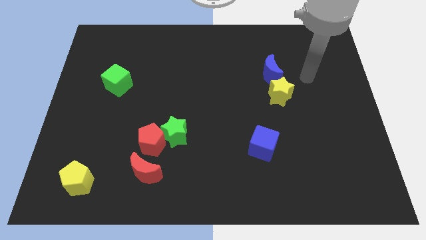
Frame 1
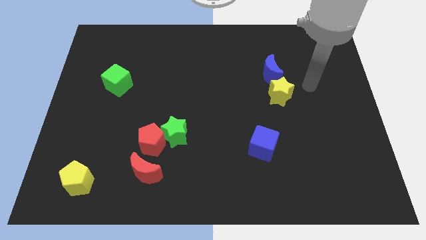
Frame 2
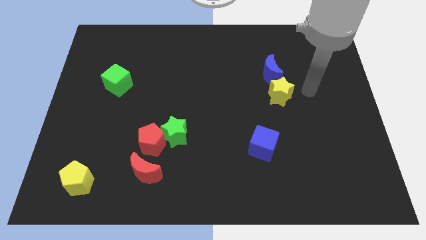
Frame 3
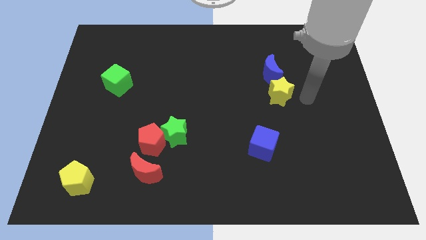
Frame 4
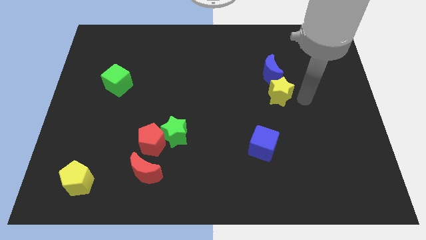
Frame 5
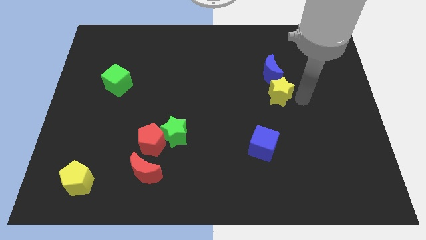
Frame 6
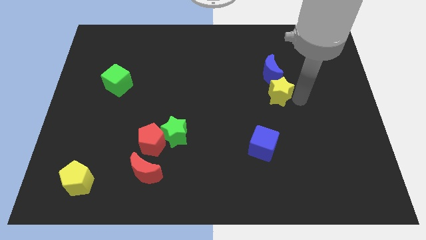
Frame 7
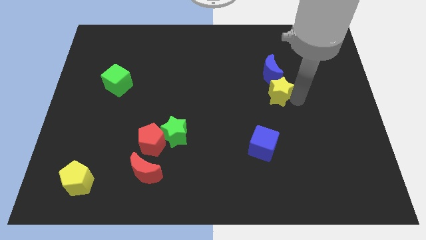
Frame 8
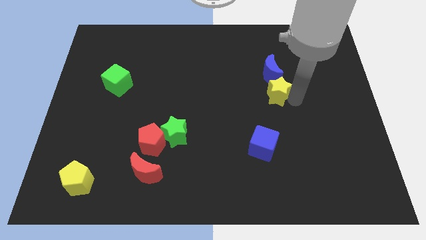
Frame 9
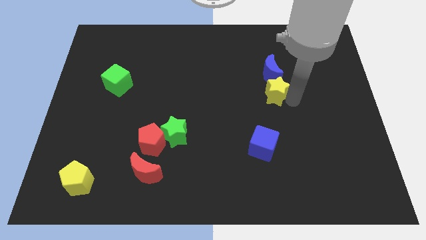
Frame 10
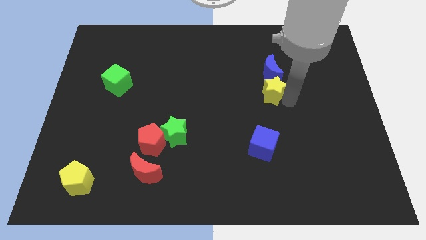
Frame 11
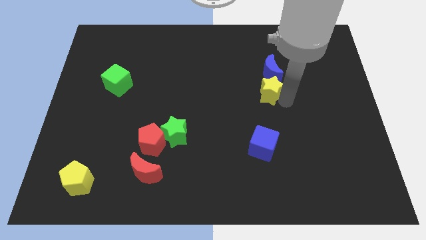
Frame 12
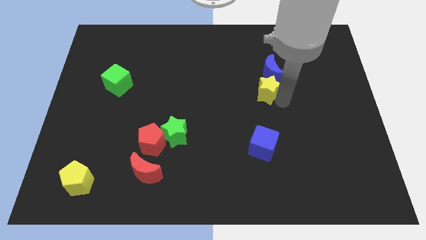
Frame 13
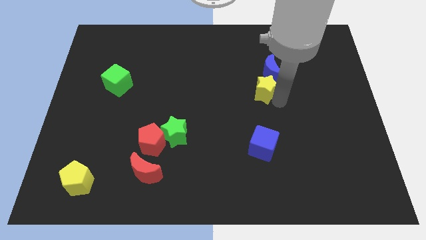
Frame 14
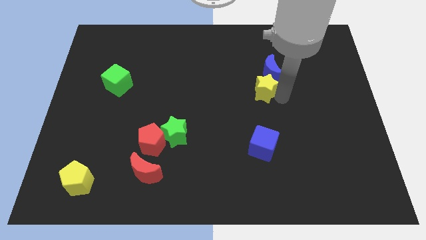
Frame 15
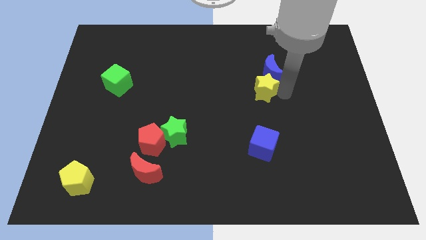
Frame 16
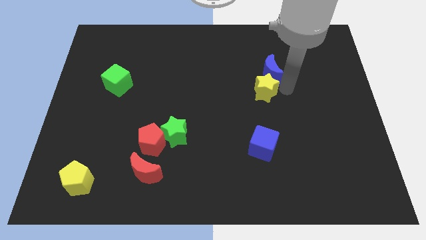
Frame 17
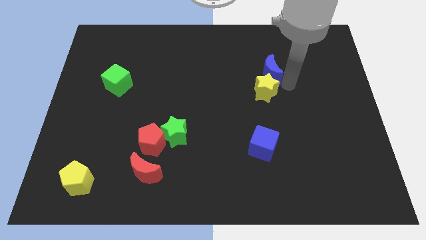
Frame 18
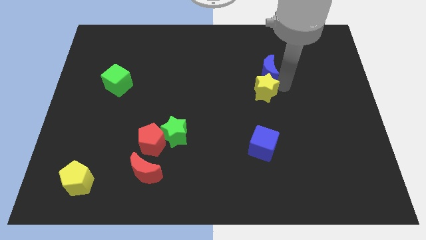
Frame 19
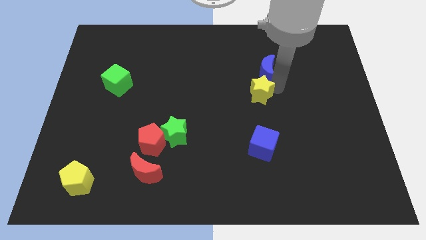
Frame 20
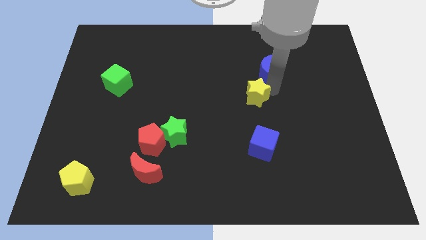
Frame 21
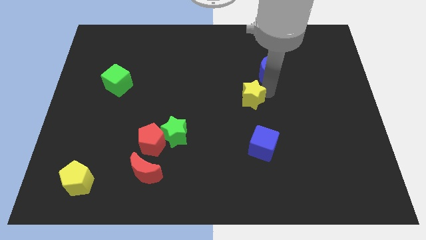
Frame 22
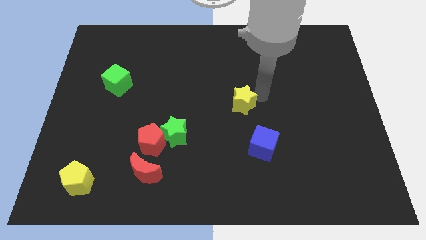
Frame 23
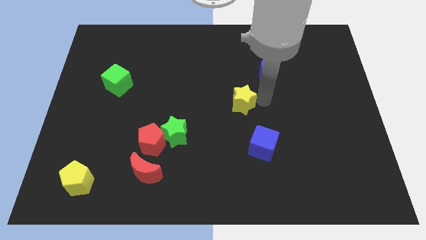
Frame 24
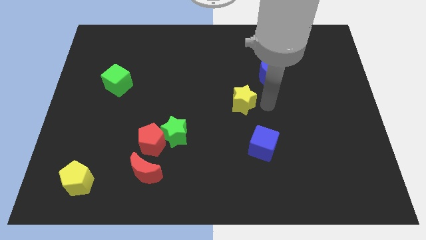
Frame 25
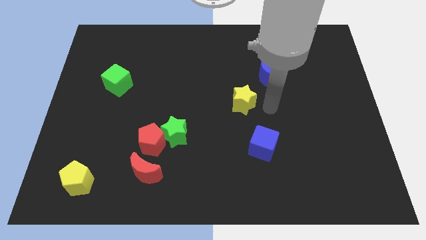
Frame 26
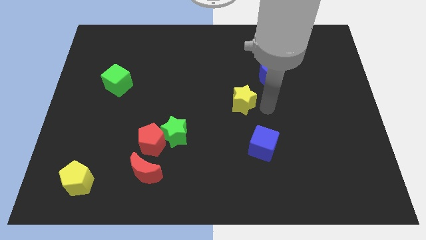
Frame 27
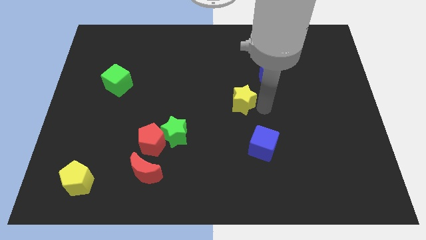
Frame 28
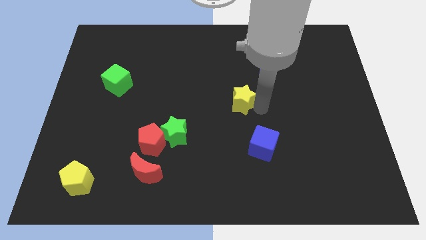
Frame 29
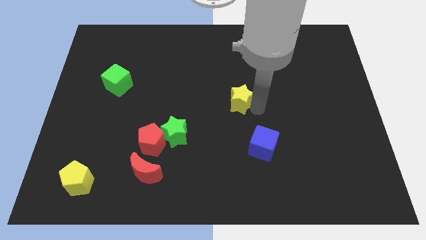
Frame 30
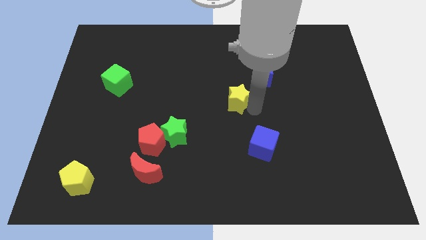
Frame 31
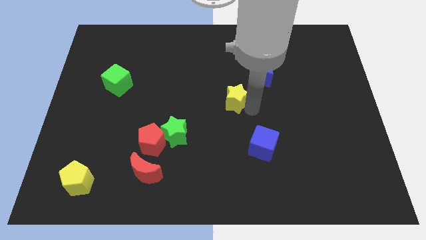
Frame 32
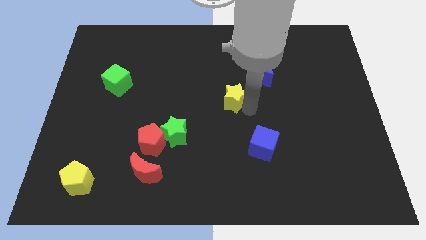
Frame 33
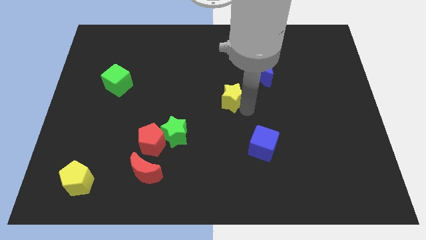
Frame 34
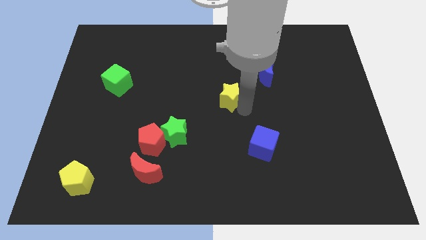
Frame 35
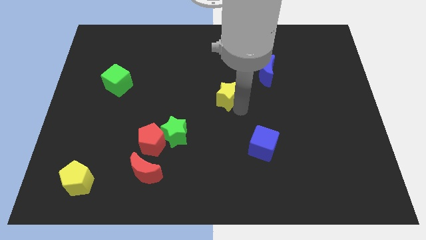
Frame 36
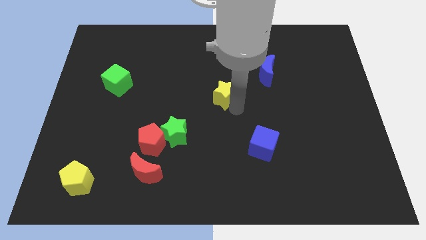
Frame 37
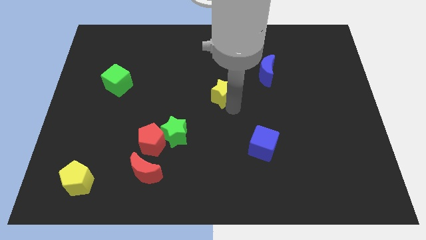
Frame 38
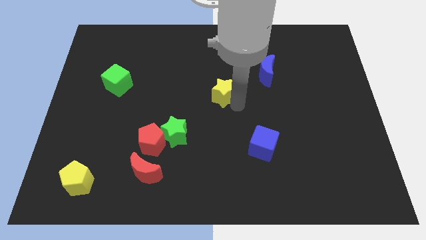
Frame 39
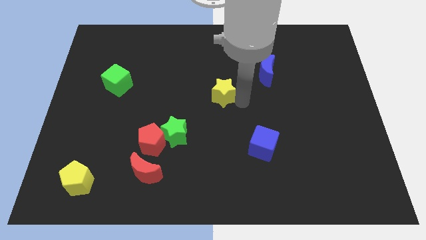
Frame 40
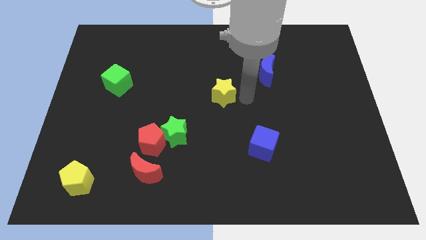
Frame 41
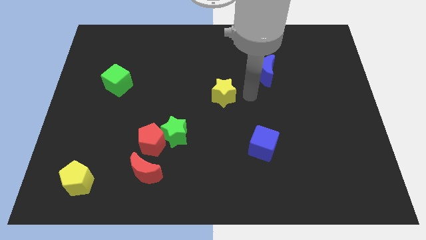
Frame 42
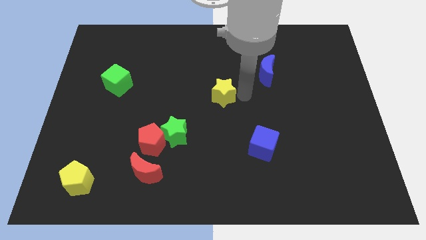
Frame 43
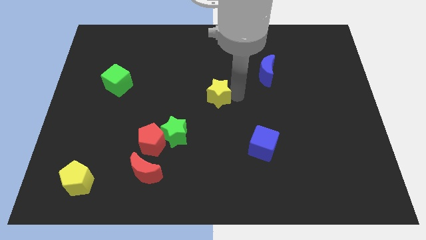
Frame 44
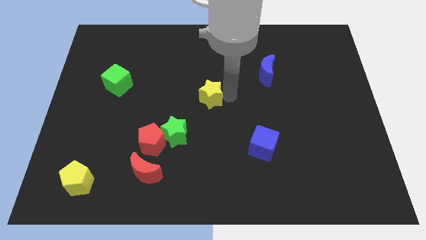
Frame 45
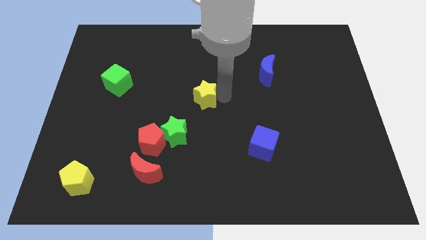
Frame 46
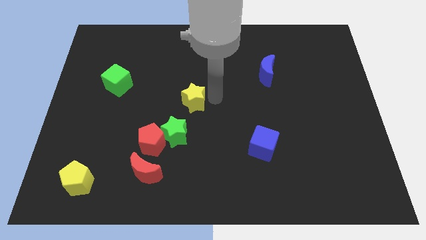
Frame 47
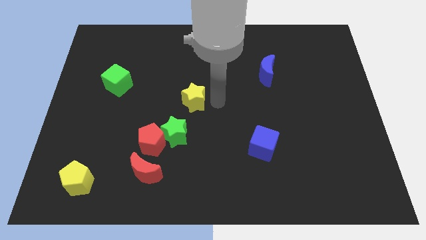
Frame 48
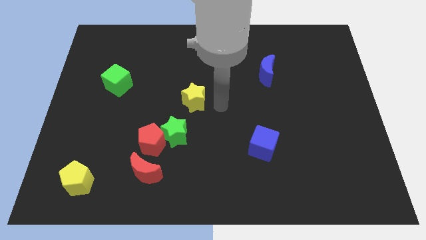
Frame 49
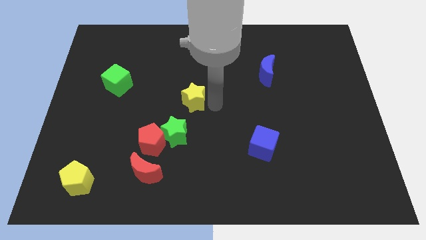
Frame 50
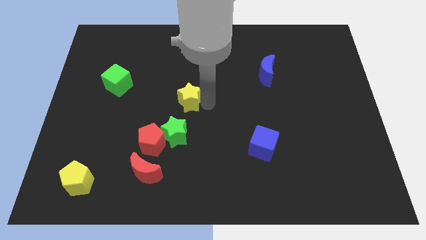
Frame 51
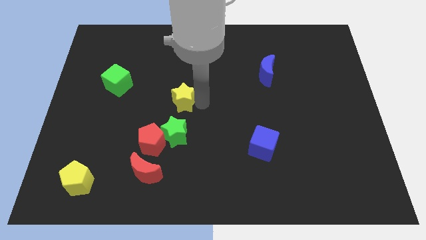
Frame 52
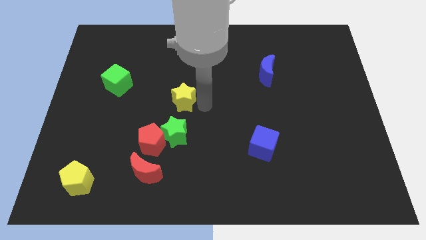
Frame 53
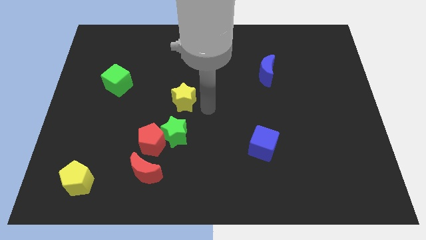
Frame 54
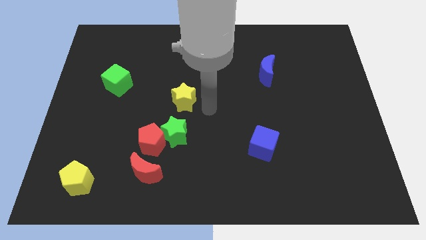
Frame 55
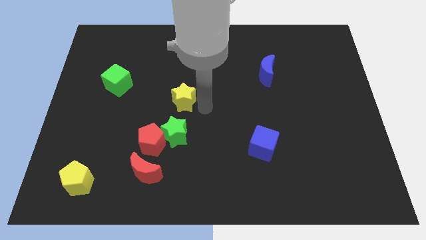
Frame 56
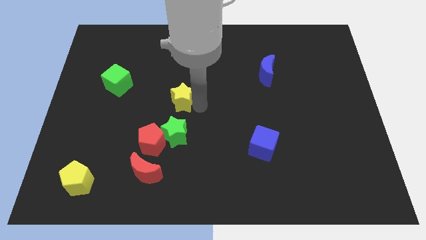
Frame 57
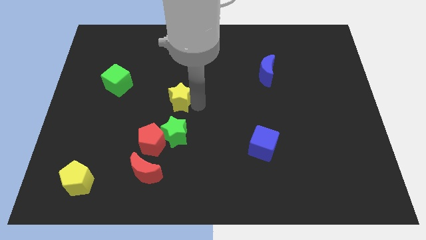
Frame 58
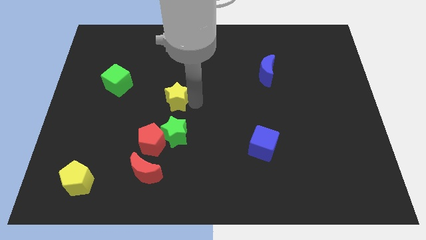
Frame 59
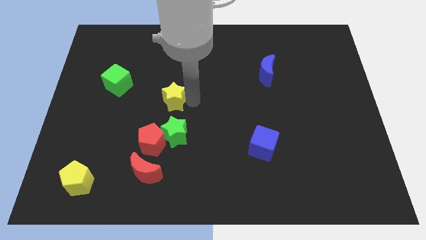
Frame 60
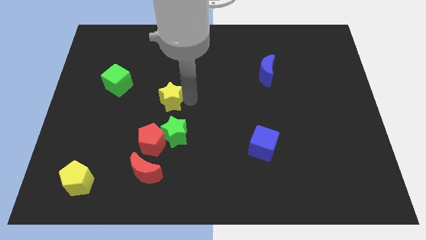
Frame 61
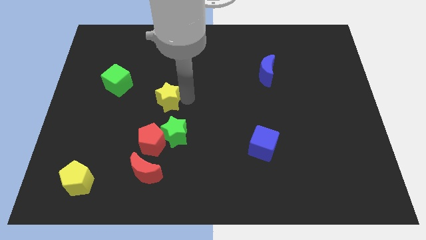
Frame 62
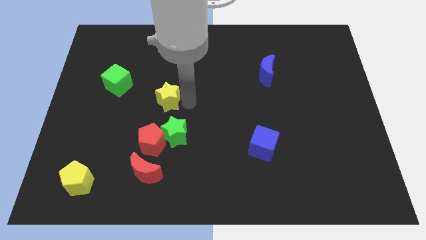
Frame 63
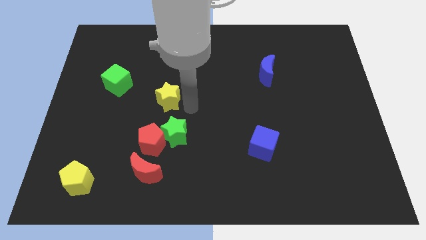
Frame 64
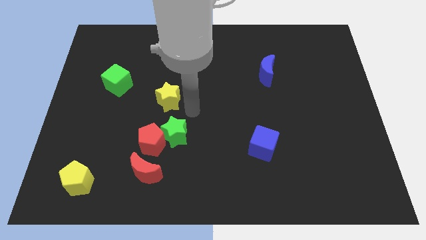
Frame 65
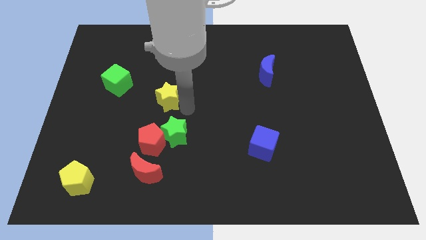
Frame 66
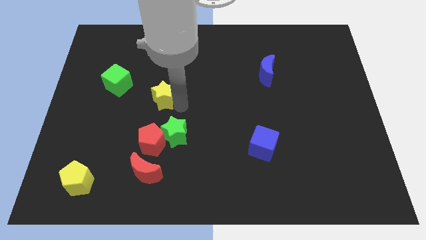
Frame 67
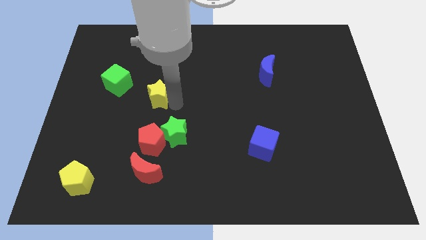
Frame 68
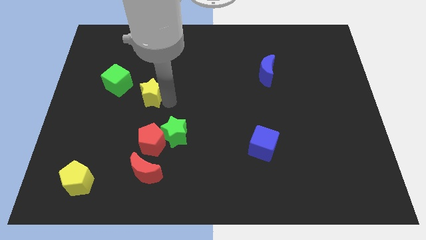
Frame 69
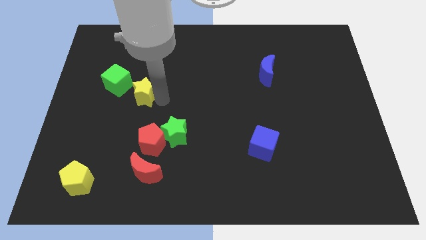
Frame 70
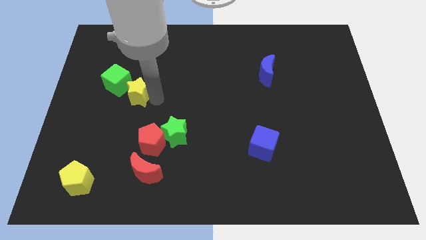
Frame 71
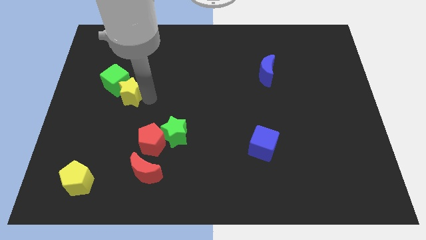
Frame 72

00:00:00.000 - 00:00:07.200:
put the yellow star to the green cube
